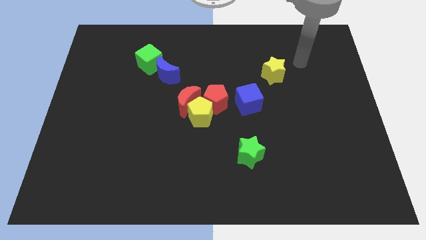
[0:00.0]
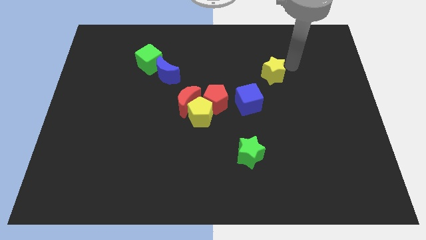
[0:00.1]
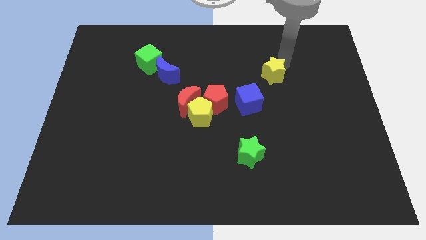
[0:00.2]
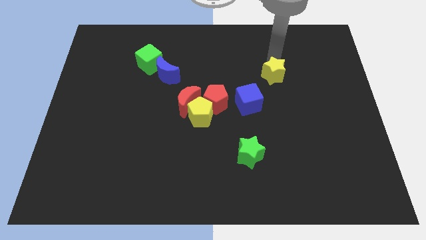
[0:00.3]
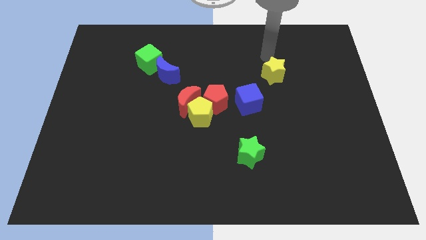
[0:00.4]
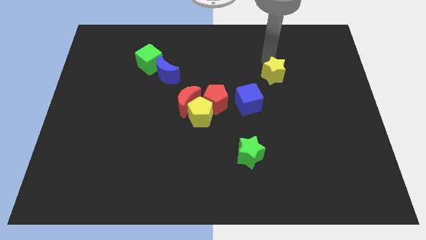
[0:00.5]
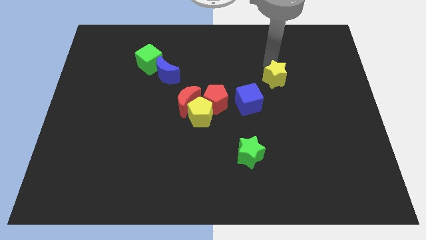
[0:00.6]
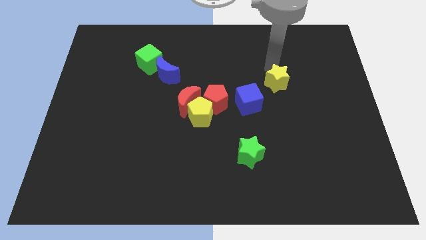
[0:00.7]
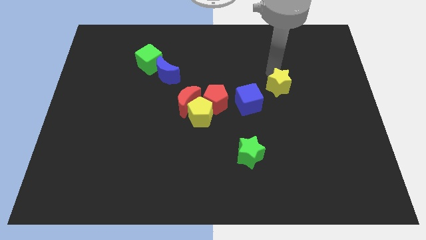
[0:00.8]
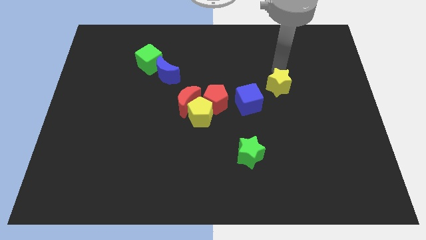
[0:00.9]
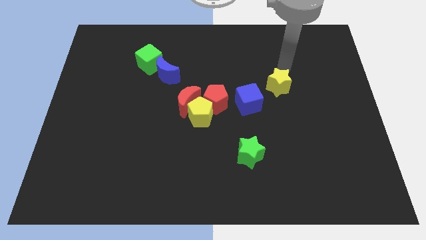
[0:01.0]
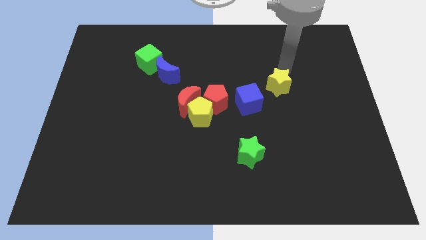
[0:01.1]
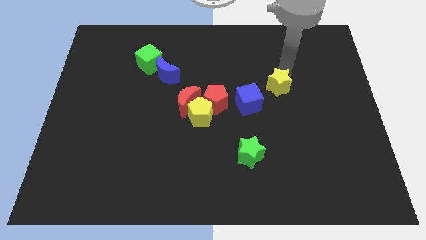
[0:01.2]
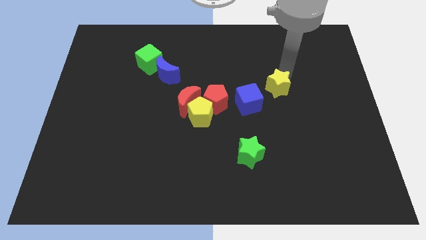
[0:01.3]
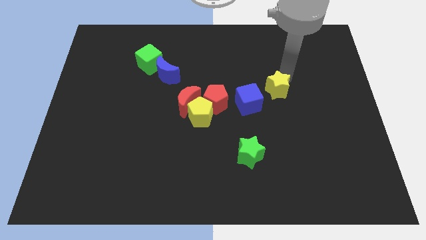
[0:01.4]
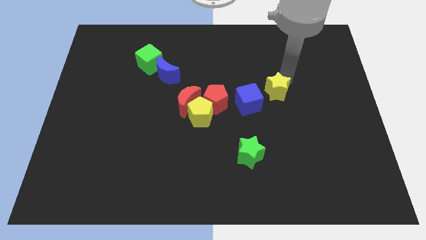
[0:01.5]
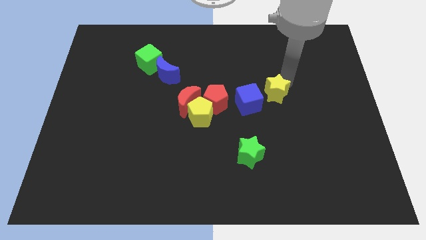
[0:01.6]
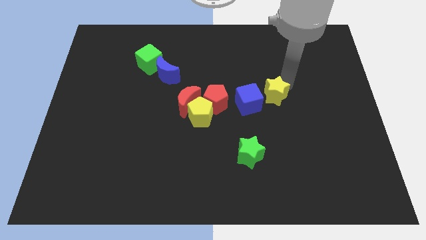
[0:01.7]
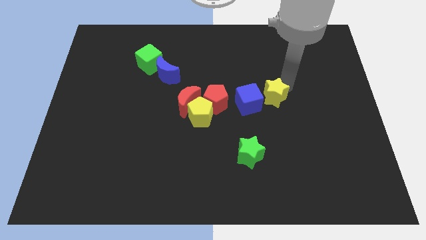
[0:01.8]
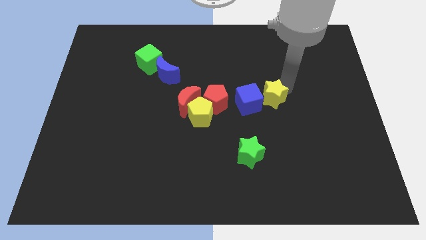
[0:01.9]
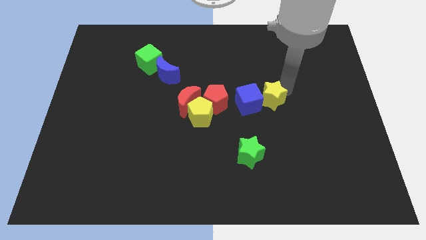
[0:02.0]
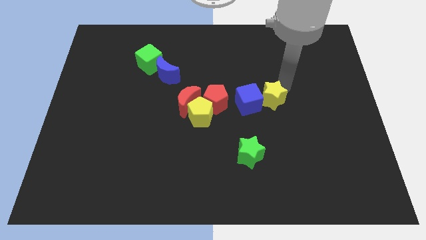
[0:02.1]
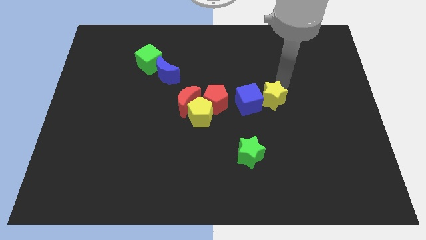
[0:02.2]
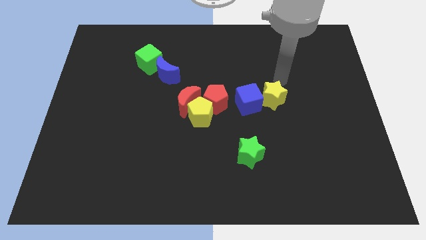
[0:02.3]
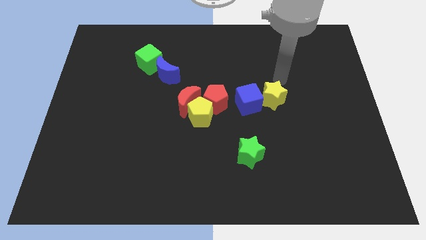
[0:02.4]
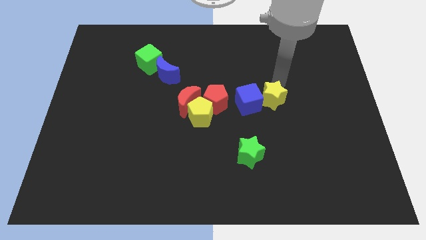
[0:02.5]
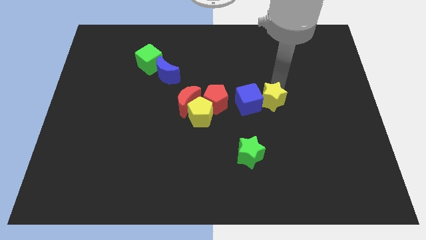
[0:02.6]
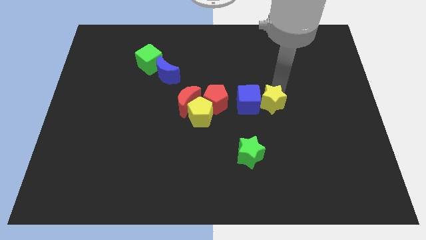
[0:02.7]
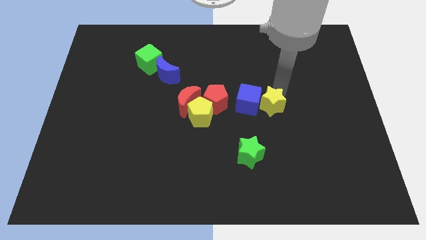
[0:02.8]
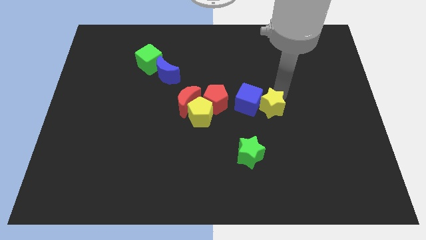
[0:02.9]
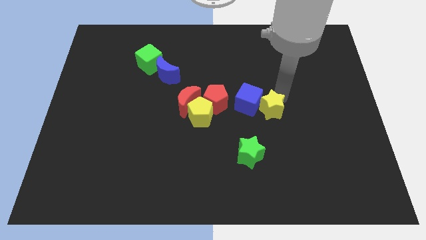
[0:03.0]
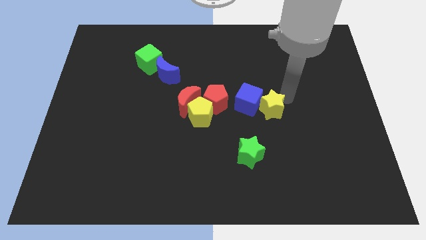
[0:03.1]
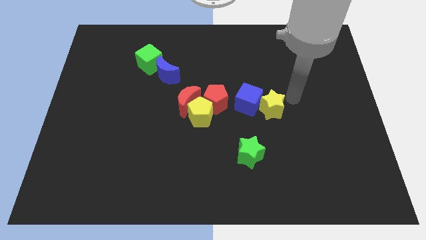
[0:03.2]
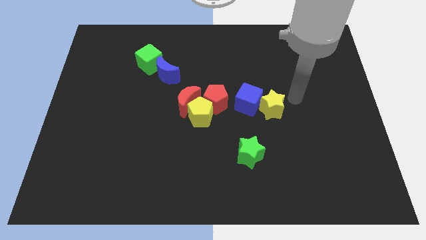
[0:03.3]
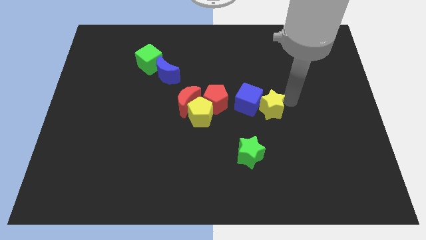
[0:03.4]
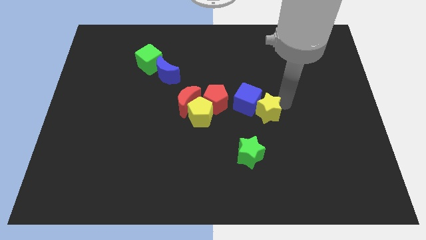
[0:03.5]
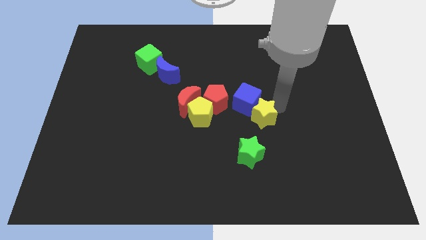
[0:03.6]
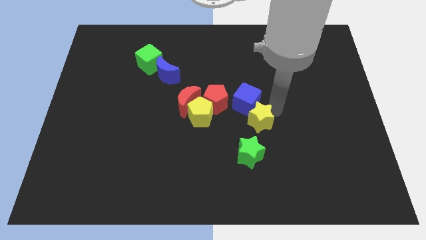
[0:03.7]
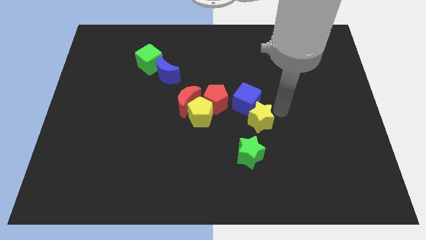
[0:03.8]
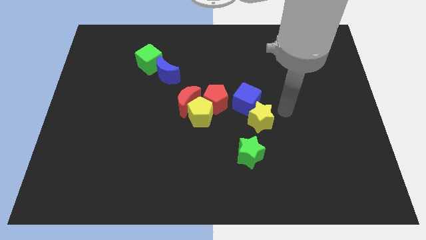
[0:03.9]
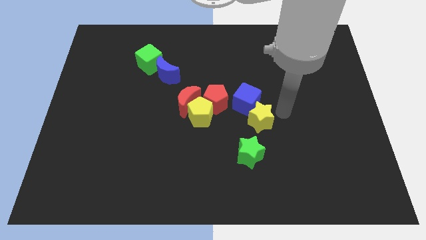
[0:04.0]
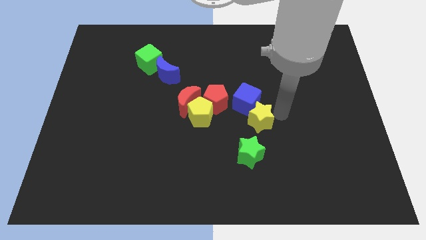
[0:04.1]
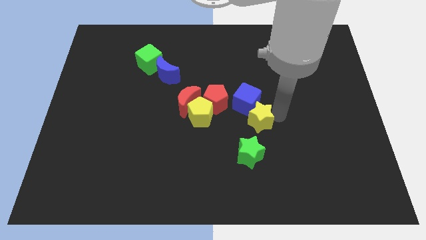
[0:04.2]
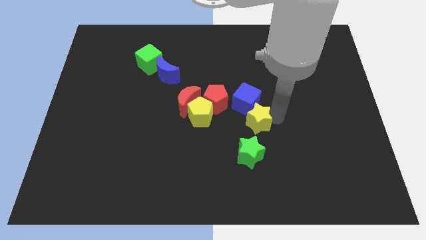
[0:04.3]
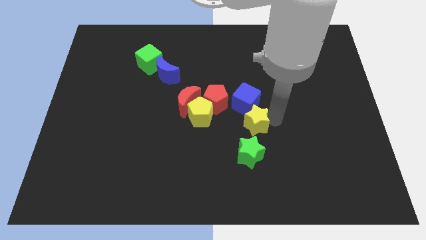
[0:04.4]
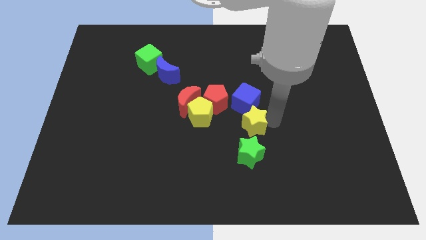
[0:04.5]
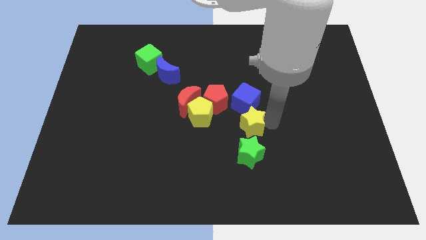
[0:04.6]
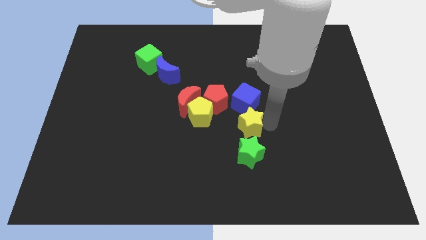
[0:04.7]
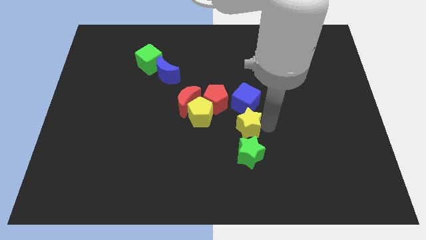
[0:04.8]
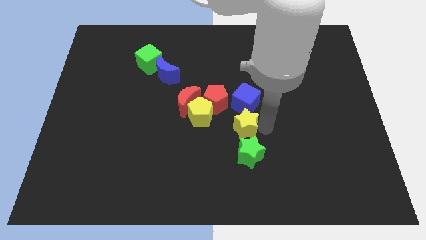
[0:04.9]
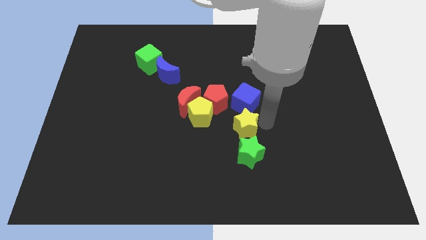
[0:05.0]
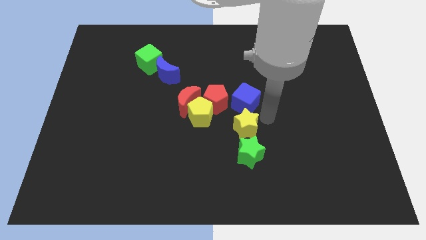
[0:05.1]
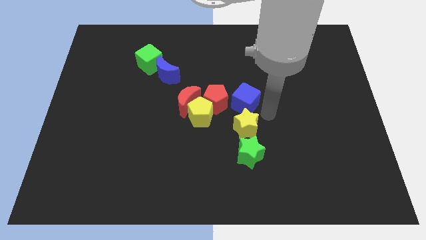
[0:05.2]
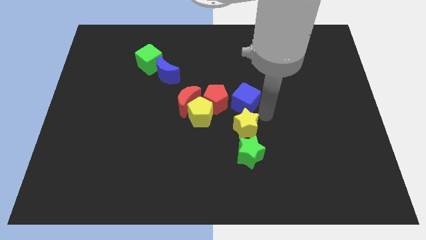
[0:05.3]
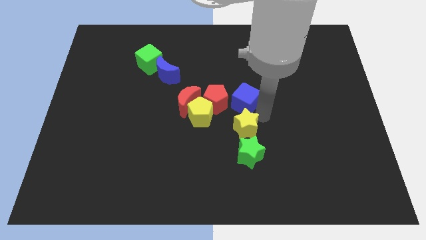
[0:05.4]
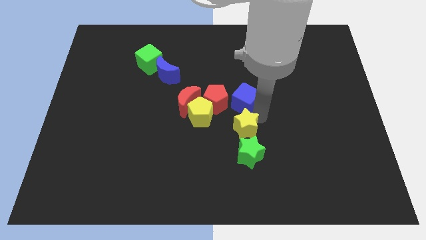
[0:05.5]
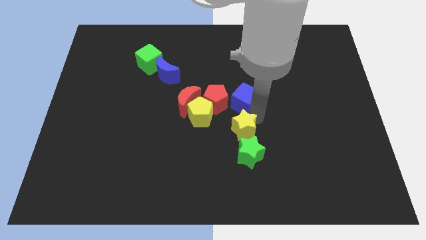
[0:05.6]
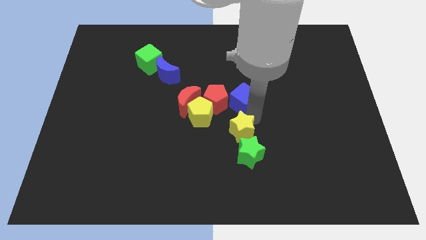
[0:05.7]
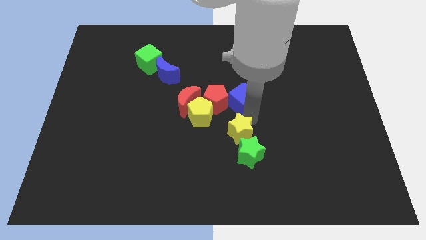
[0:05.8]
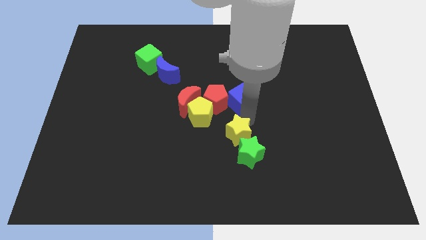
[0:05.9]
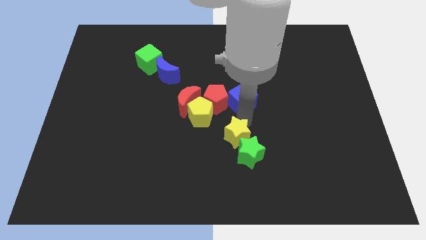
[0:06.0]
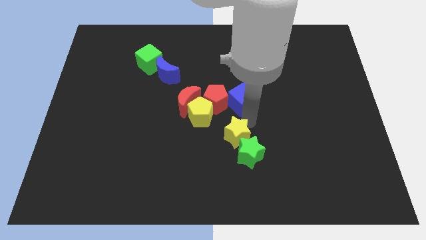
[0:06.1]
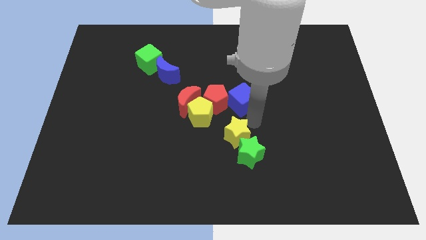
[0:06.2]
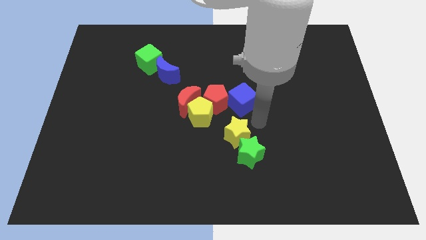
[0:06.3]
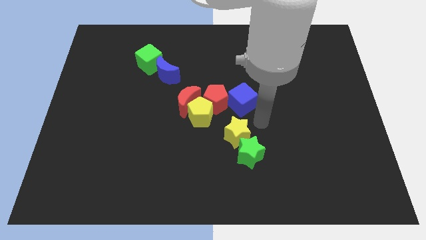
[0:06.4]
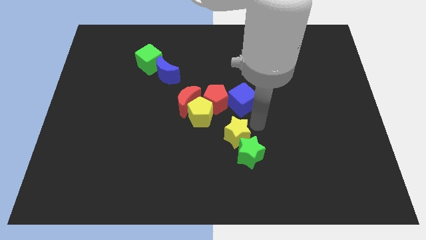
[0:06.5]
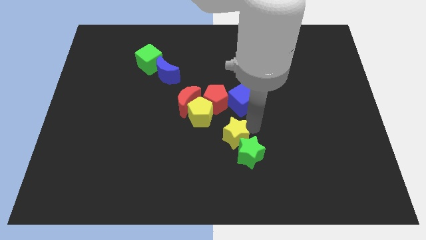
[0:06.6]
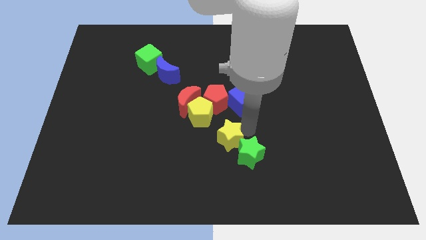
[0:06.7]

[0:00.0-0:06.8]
slide the yellow star down and then to the left

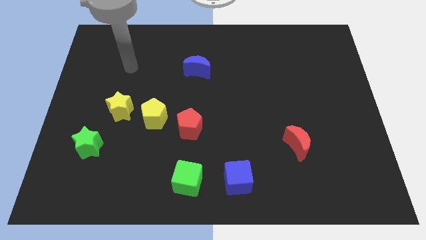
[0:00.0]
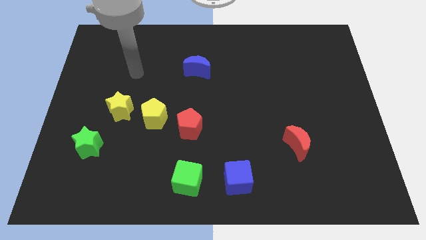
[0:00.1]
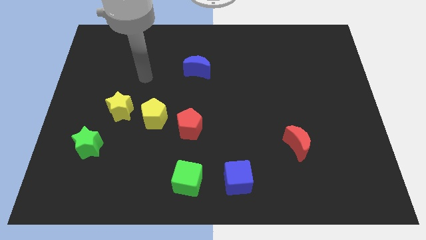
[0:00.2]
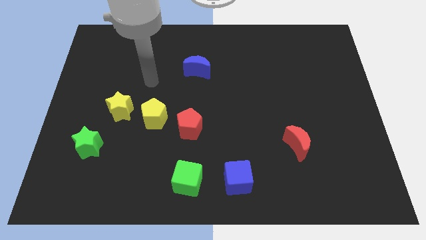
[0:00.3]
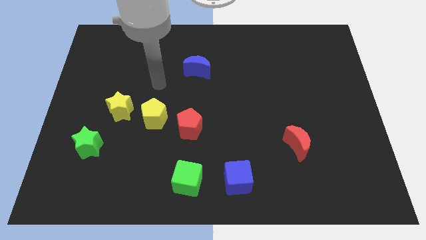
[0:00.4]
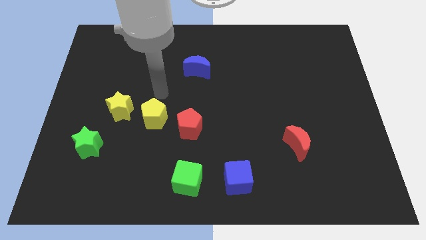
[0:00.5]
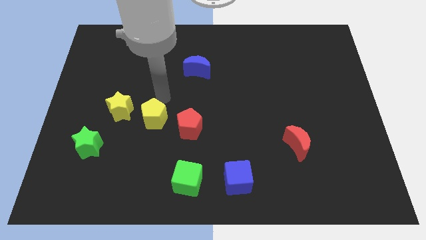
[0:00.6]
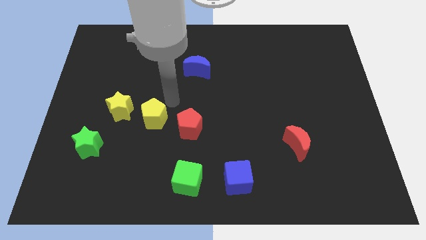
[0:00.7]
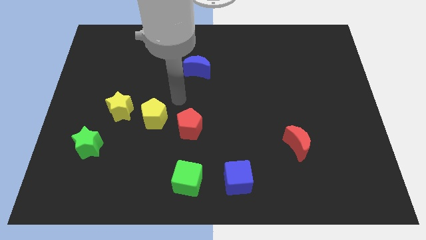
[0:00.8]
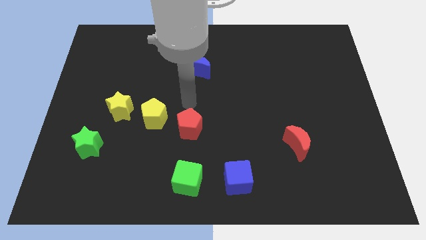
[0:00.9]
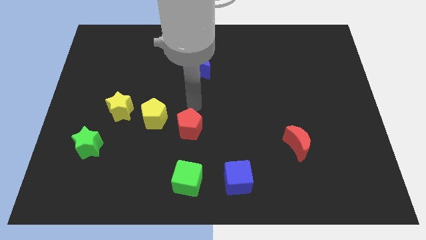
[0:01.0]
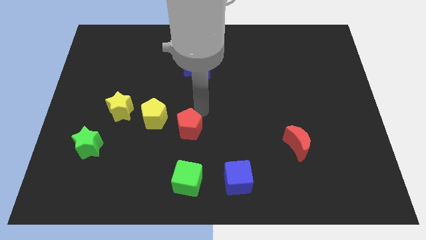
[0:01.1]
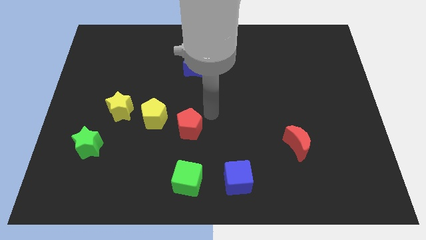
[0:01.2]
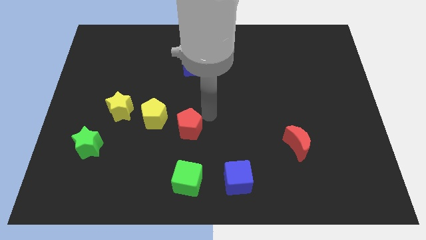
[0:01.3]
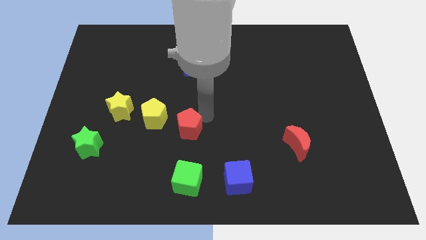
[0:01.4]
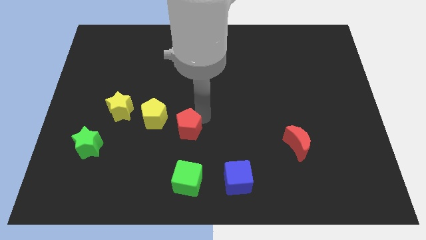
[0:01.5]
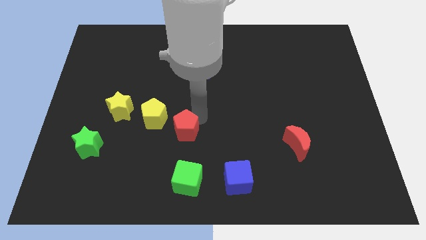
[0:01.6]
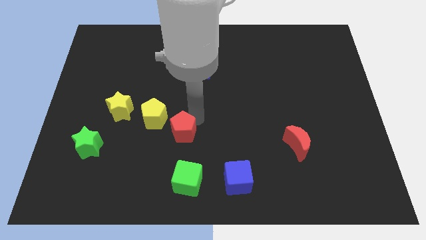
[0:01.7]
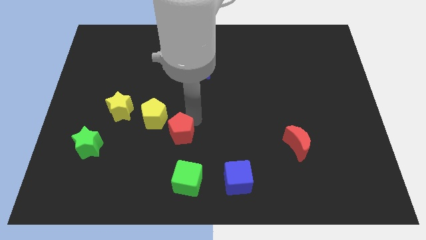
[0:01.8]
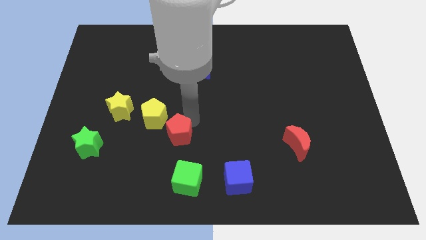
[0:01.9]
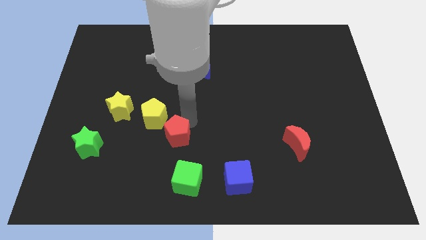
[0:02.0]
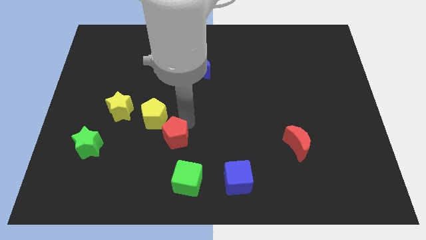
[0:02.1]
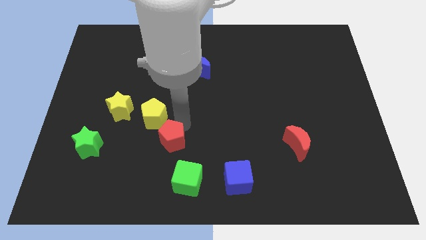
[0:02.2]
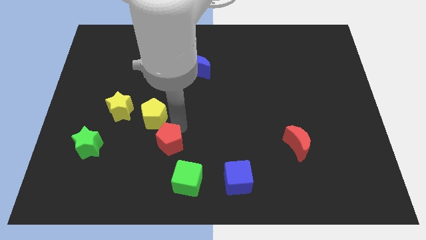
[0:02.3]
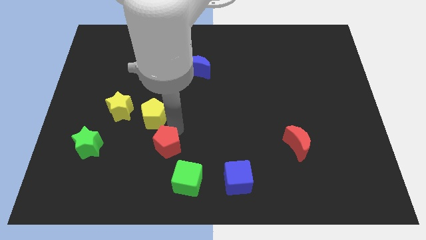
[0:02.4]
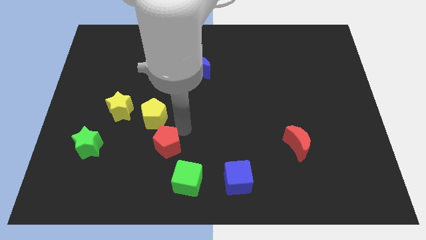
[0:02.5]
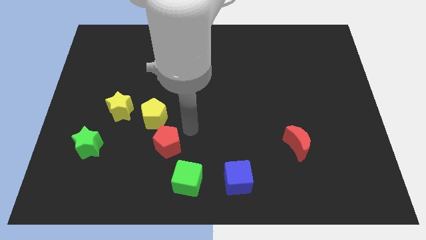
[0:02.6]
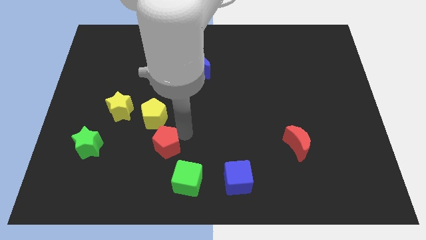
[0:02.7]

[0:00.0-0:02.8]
slightly slide the red pentagon downwards and left diagonally
